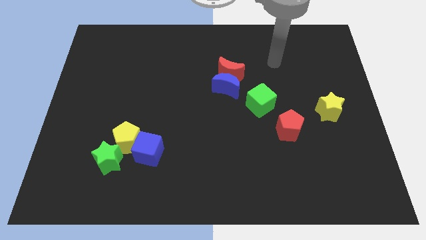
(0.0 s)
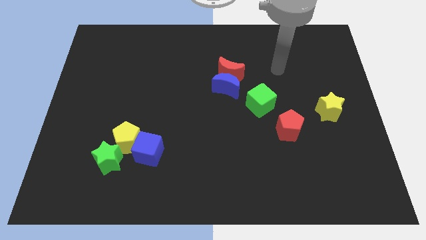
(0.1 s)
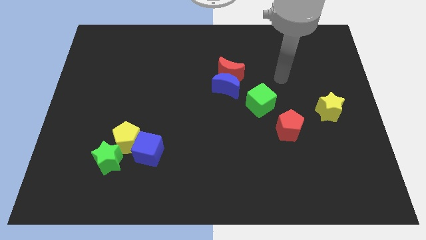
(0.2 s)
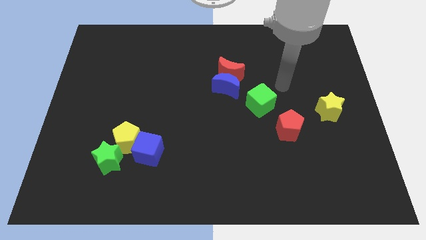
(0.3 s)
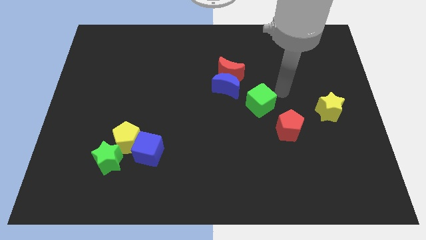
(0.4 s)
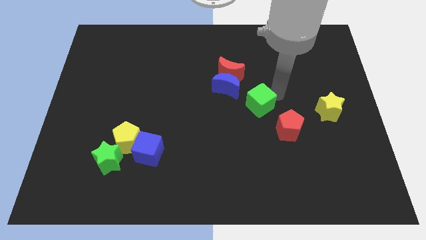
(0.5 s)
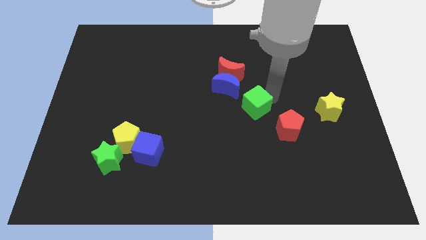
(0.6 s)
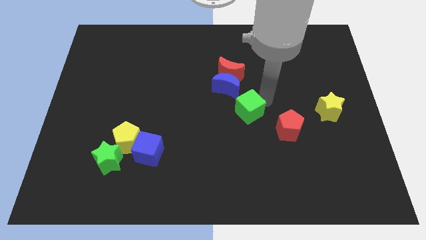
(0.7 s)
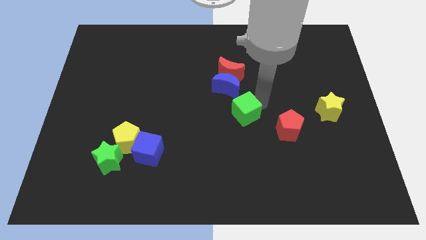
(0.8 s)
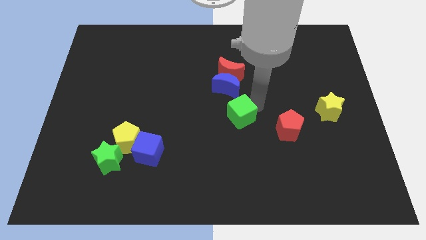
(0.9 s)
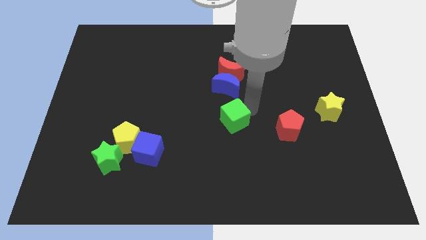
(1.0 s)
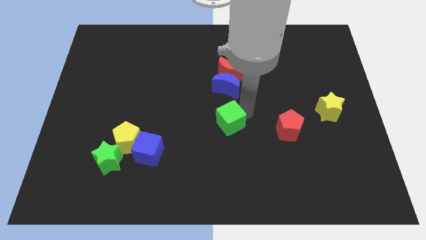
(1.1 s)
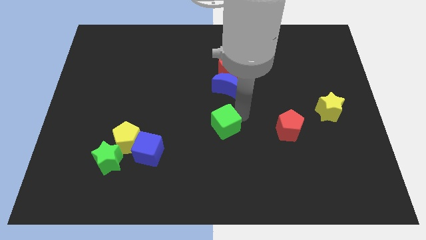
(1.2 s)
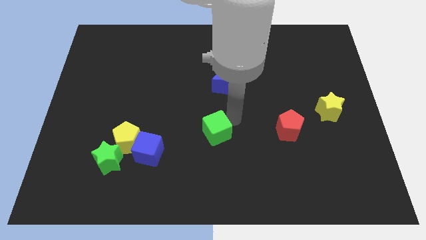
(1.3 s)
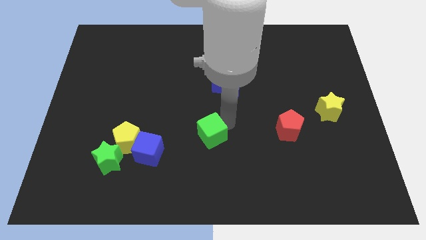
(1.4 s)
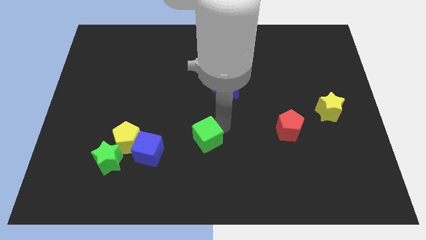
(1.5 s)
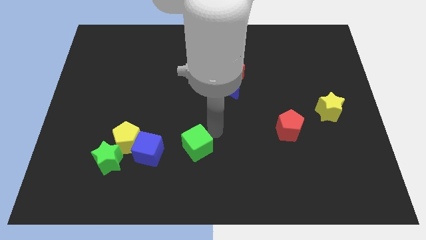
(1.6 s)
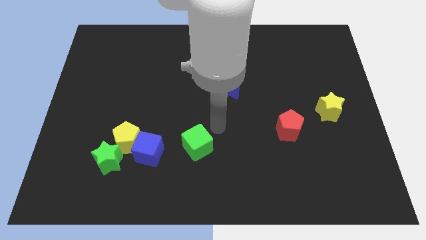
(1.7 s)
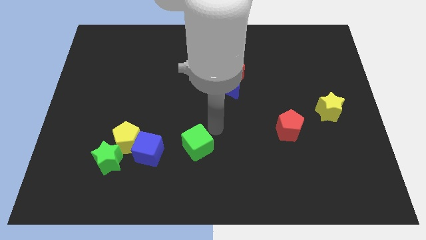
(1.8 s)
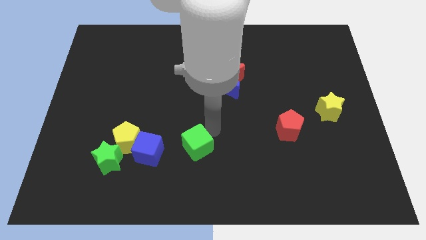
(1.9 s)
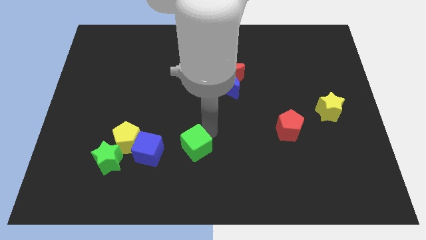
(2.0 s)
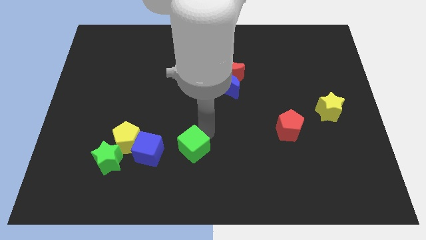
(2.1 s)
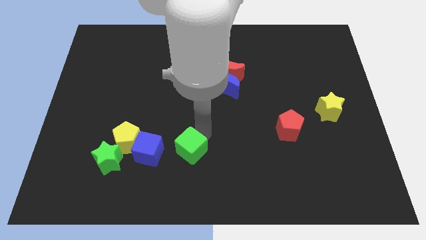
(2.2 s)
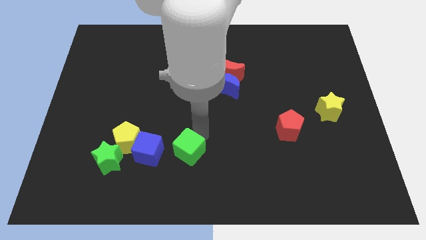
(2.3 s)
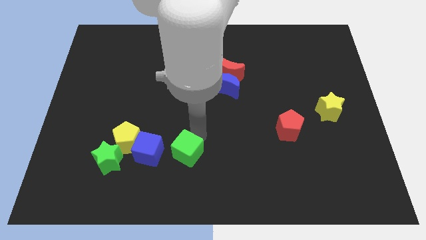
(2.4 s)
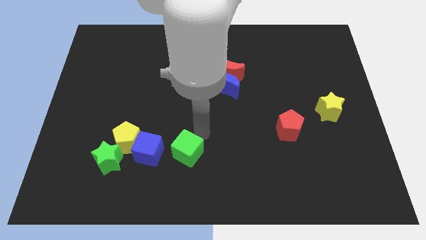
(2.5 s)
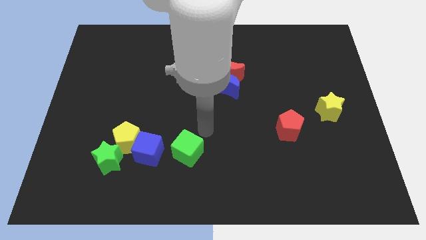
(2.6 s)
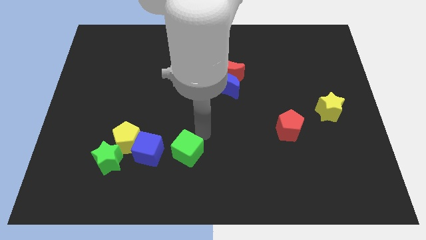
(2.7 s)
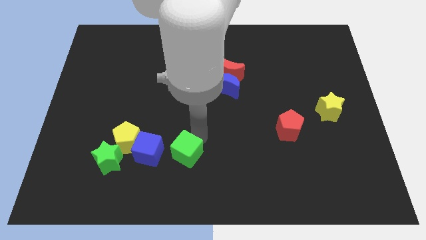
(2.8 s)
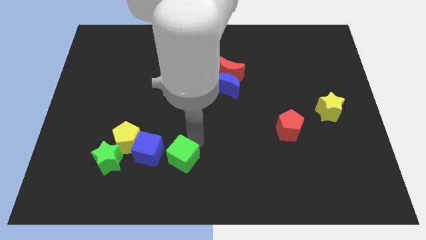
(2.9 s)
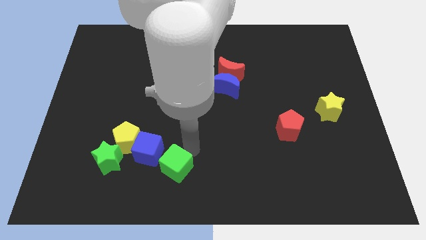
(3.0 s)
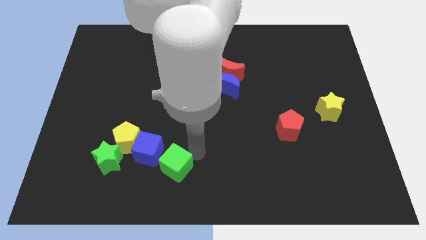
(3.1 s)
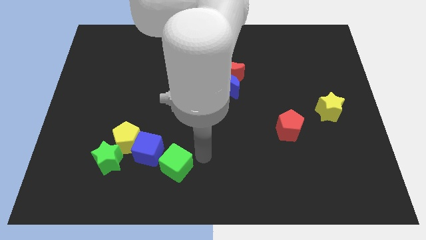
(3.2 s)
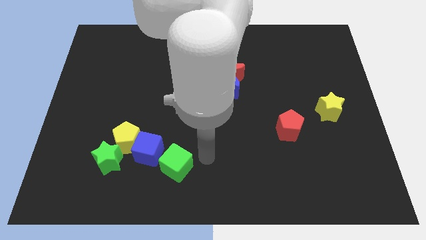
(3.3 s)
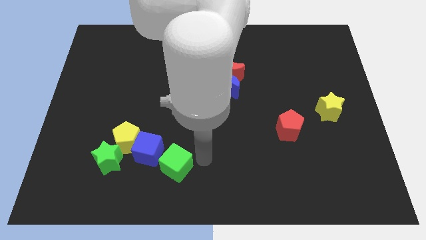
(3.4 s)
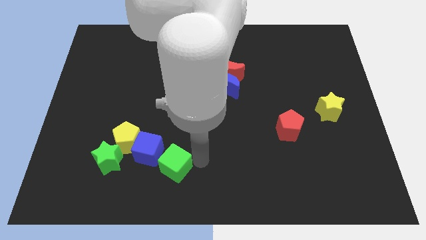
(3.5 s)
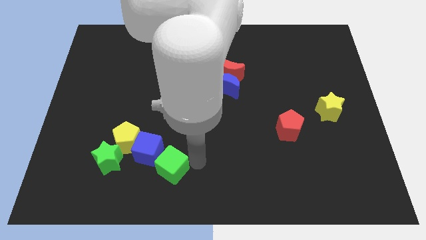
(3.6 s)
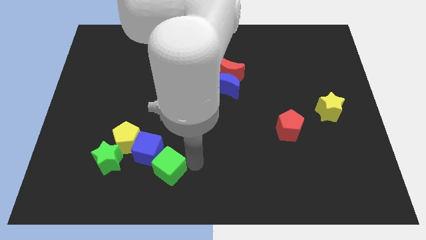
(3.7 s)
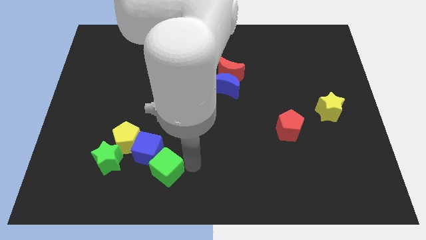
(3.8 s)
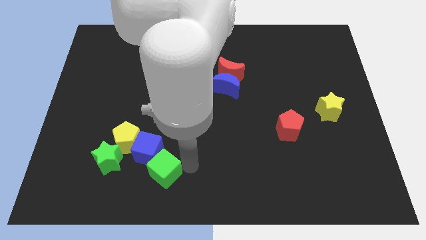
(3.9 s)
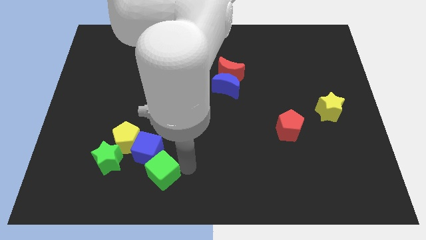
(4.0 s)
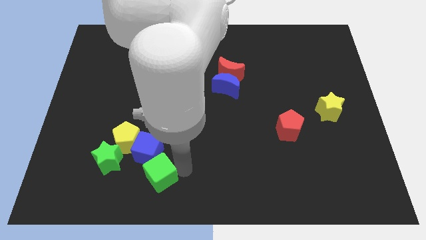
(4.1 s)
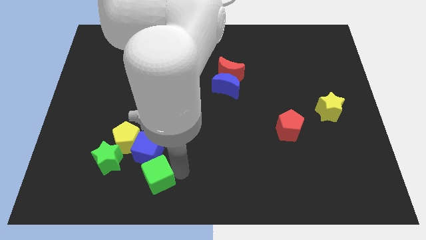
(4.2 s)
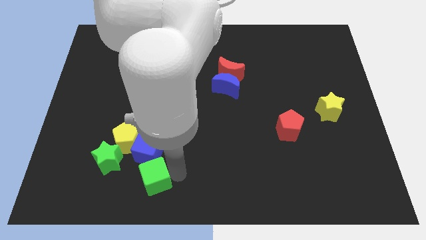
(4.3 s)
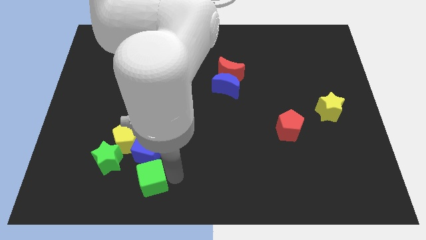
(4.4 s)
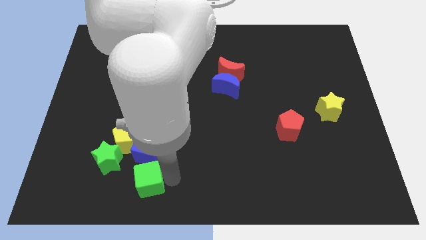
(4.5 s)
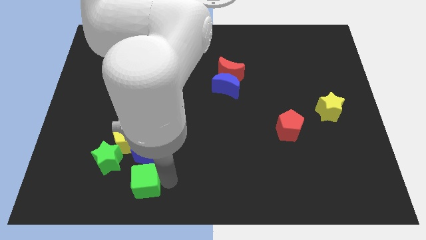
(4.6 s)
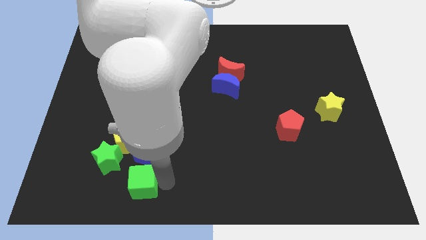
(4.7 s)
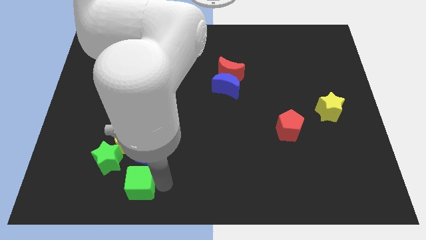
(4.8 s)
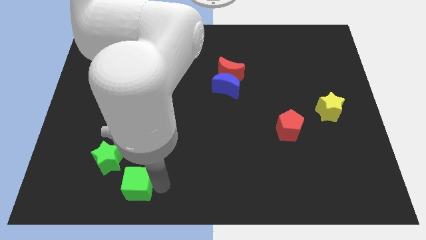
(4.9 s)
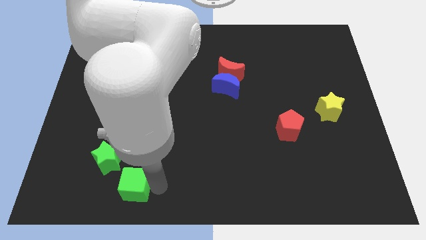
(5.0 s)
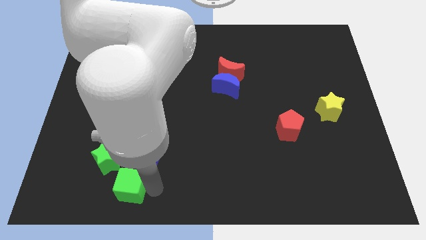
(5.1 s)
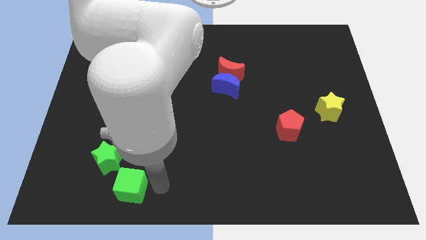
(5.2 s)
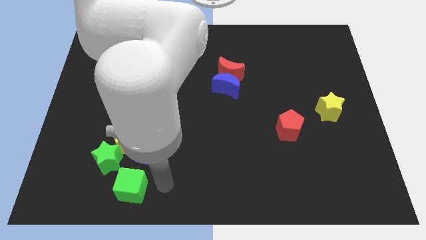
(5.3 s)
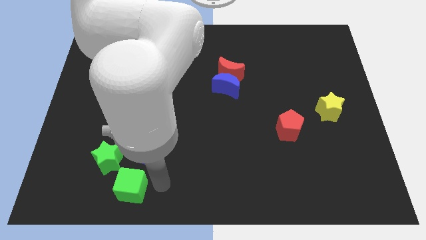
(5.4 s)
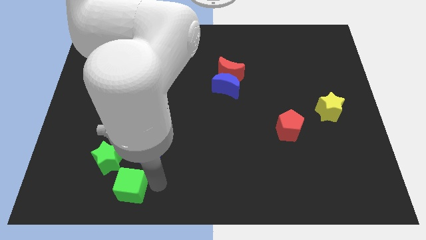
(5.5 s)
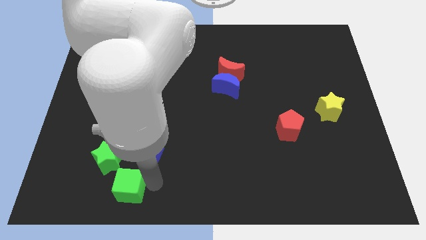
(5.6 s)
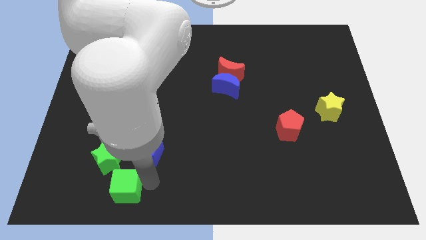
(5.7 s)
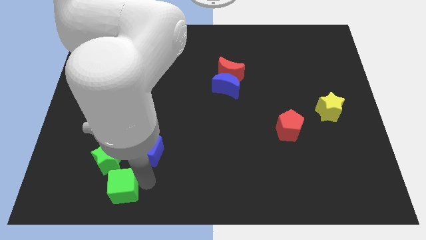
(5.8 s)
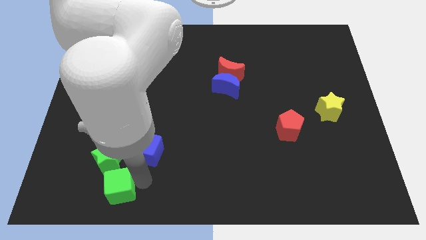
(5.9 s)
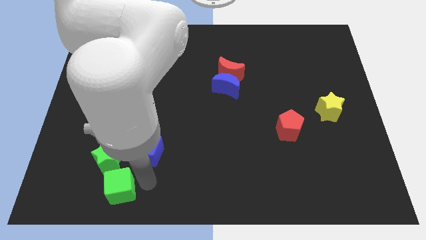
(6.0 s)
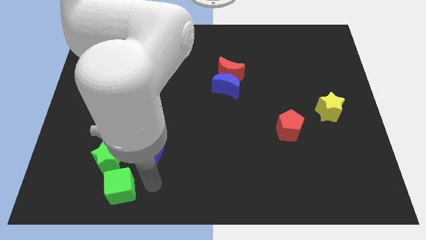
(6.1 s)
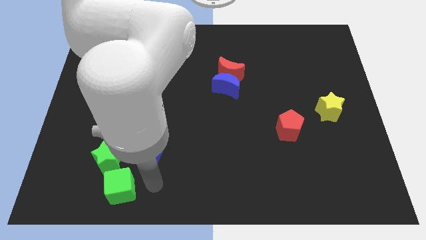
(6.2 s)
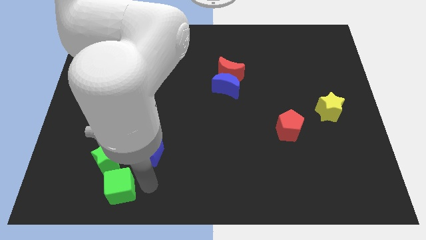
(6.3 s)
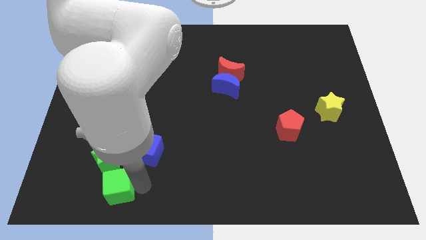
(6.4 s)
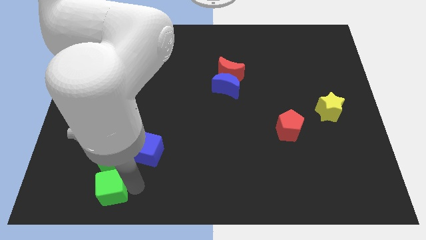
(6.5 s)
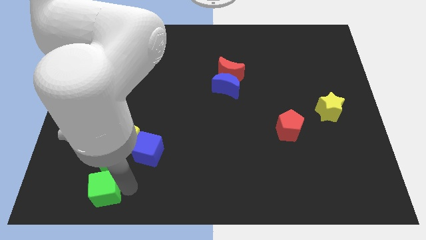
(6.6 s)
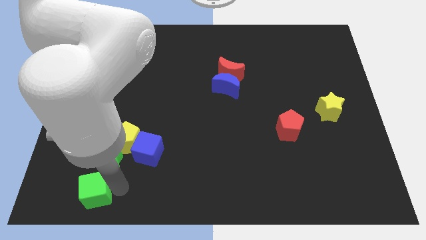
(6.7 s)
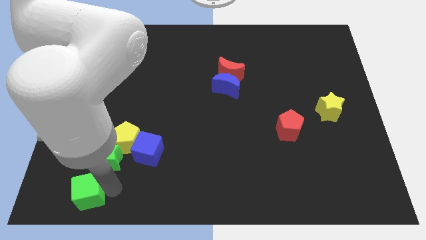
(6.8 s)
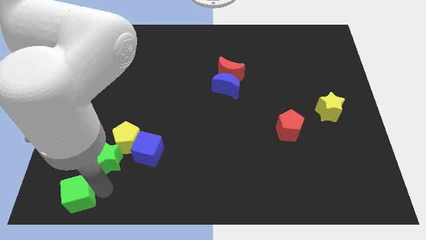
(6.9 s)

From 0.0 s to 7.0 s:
slide the green cube to the bottom left
